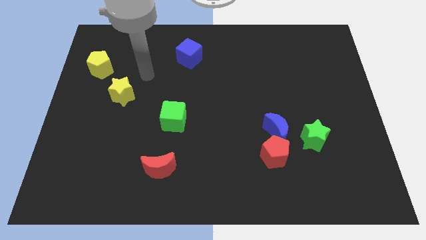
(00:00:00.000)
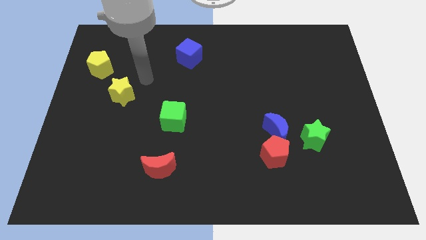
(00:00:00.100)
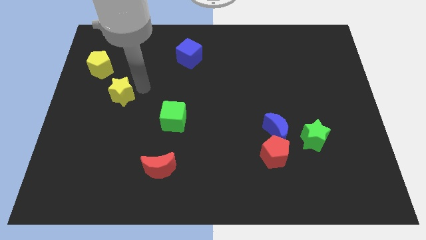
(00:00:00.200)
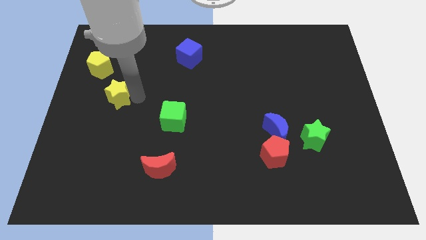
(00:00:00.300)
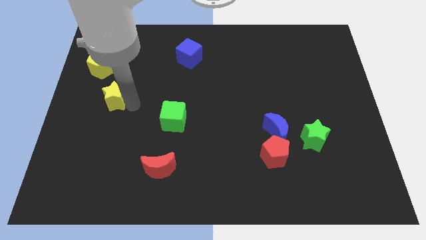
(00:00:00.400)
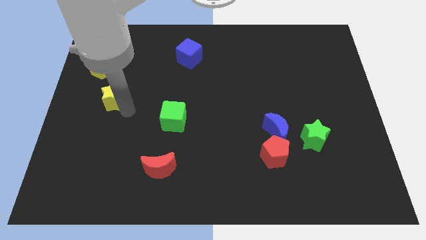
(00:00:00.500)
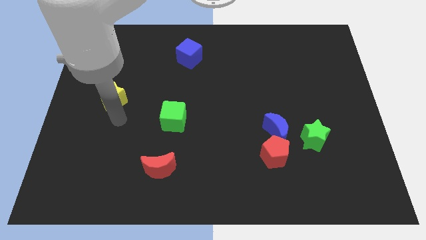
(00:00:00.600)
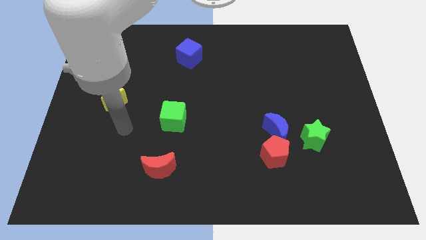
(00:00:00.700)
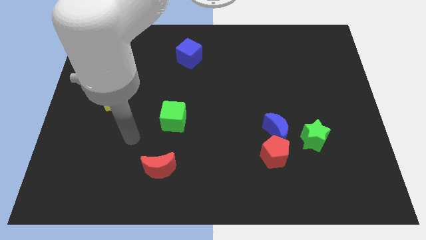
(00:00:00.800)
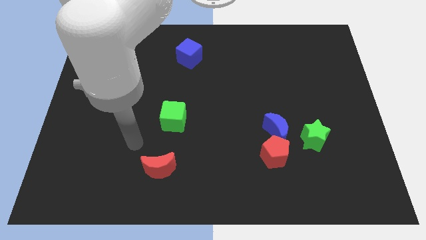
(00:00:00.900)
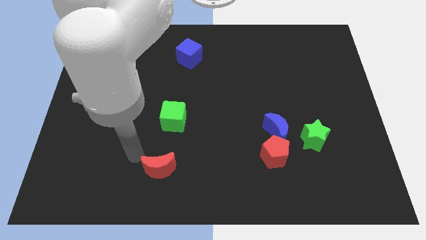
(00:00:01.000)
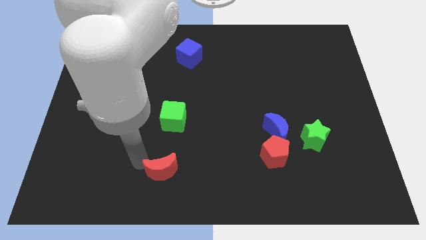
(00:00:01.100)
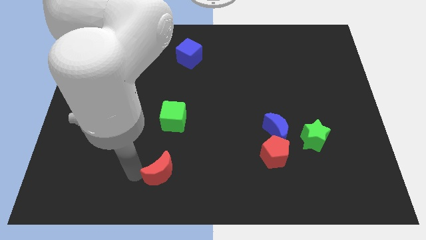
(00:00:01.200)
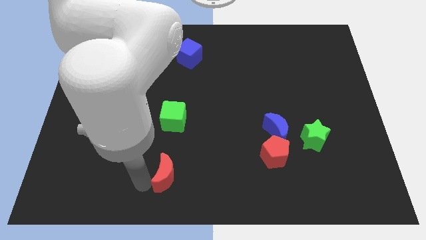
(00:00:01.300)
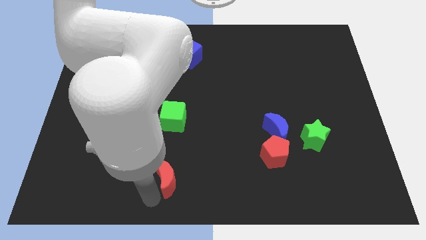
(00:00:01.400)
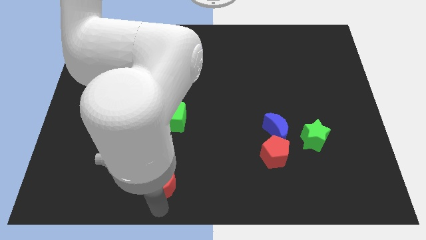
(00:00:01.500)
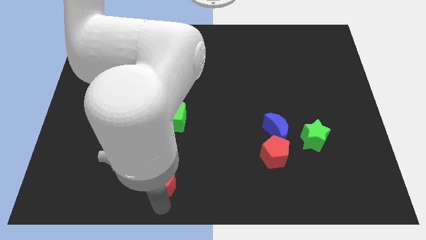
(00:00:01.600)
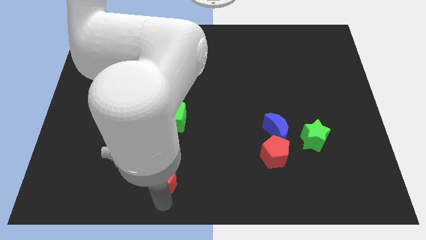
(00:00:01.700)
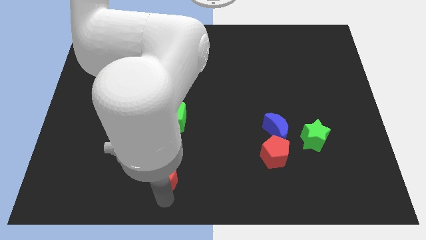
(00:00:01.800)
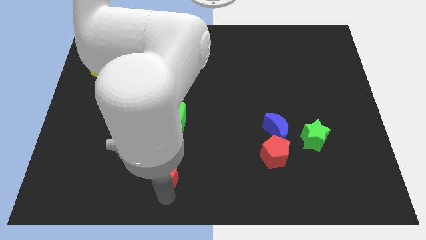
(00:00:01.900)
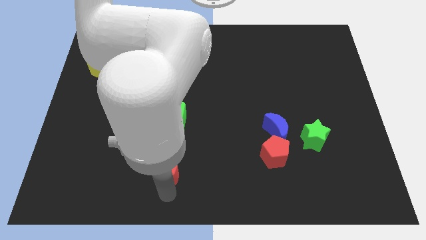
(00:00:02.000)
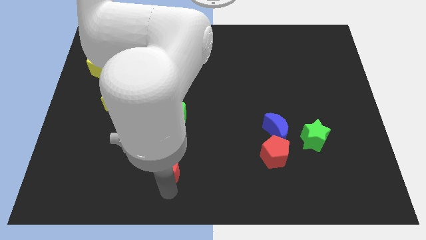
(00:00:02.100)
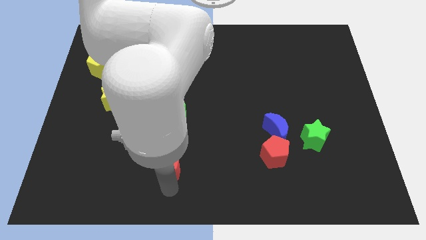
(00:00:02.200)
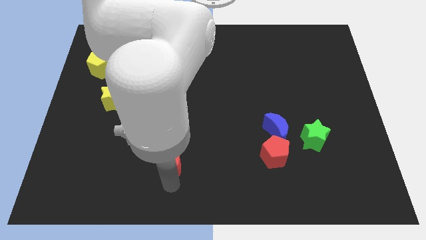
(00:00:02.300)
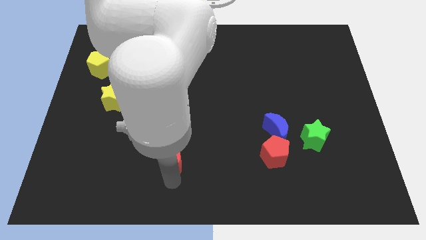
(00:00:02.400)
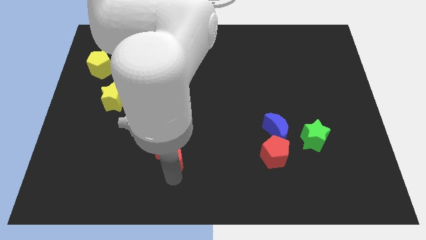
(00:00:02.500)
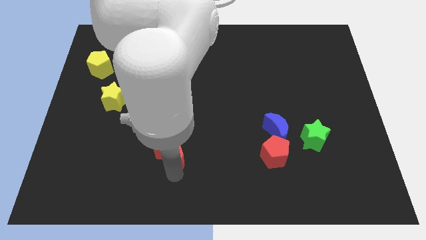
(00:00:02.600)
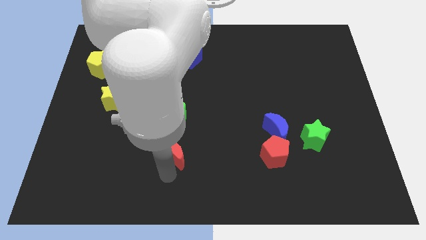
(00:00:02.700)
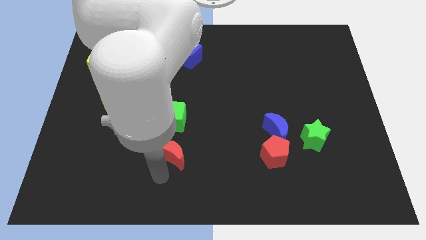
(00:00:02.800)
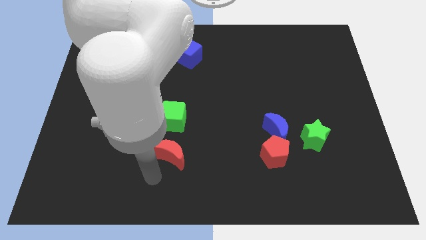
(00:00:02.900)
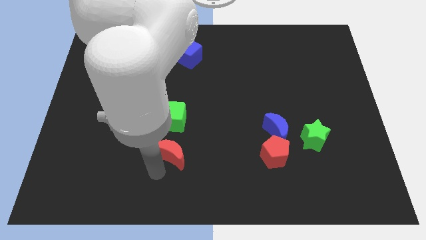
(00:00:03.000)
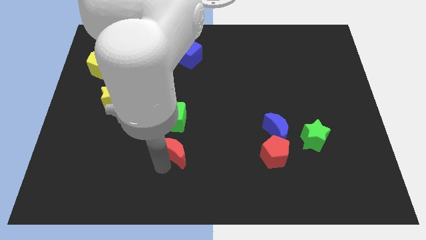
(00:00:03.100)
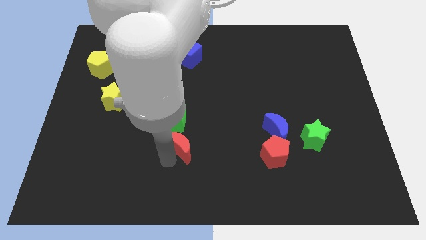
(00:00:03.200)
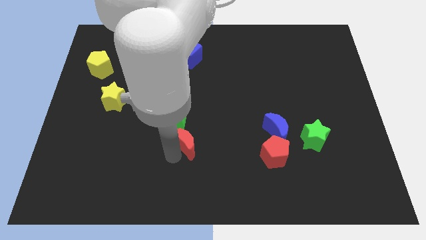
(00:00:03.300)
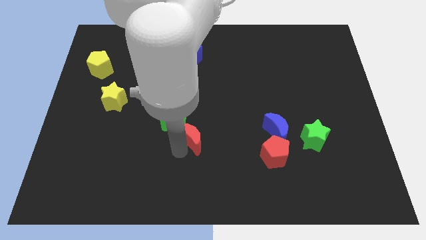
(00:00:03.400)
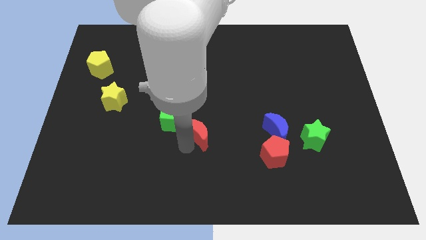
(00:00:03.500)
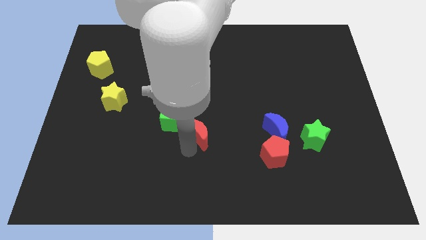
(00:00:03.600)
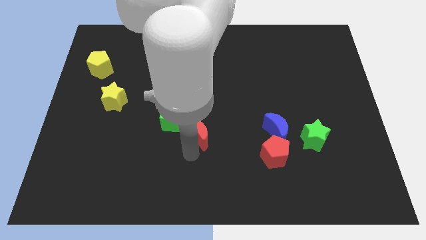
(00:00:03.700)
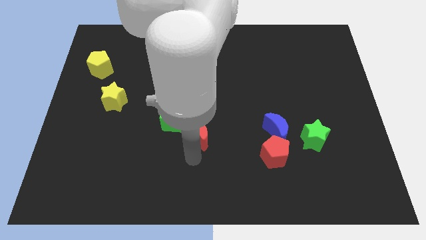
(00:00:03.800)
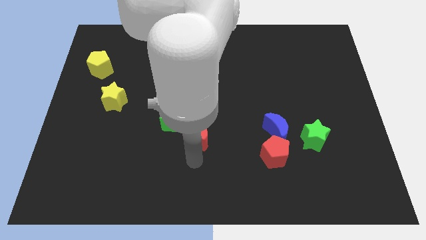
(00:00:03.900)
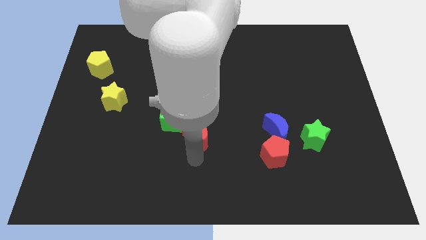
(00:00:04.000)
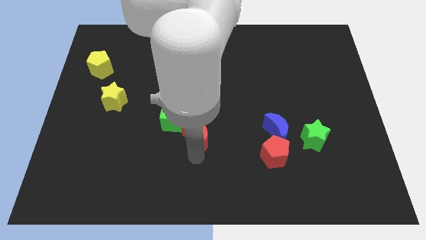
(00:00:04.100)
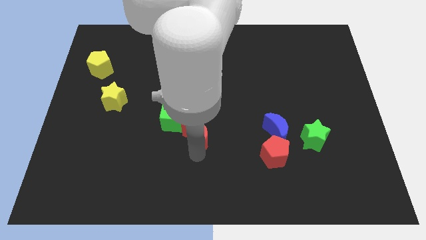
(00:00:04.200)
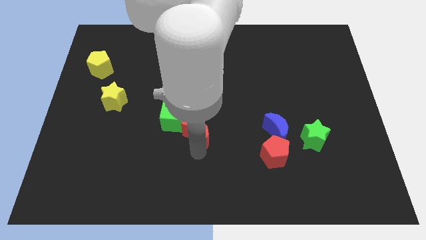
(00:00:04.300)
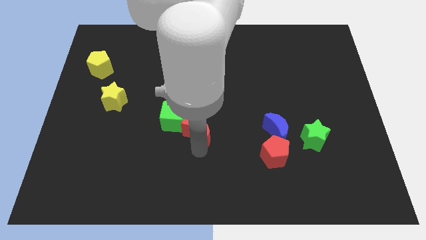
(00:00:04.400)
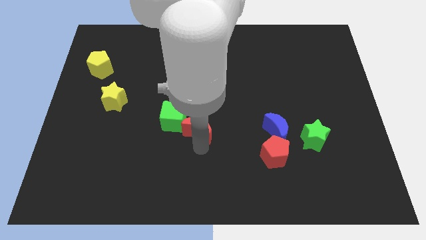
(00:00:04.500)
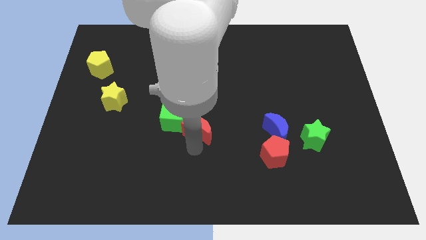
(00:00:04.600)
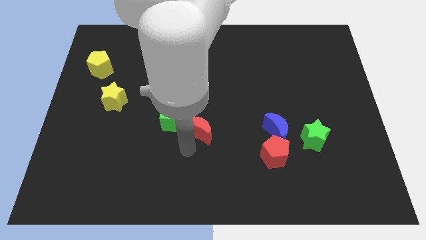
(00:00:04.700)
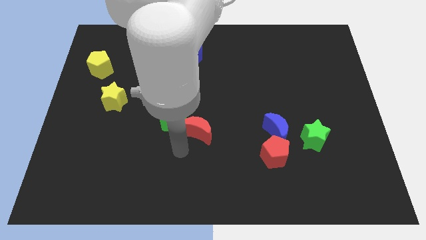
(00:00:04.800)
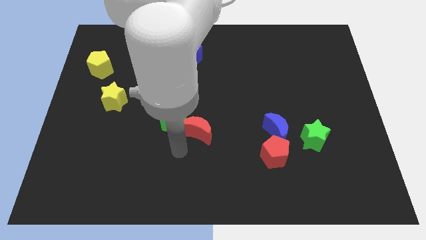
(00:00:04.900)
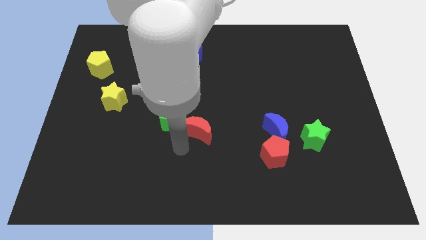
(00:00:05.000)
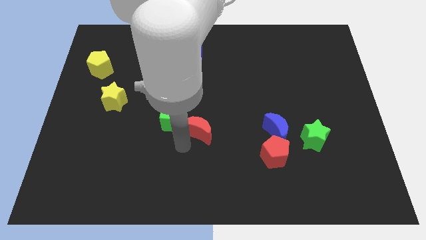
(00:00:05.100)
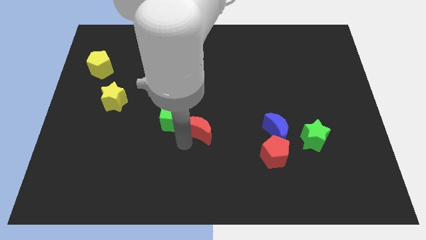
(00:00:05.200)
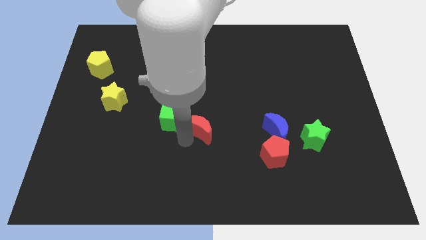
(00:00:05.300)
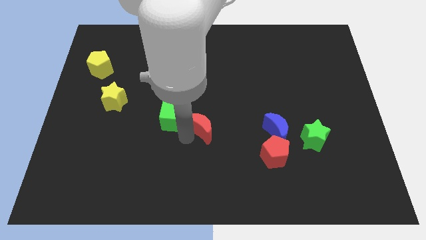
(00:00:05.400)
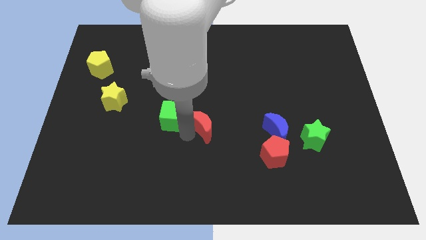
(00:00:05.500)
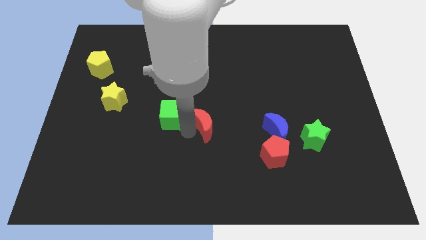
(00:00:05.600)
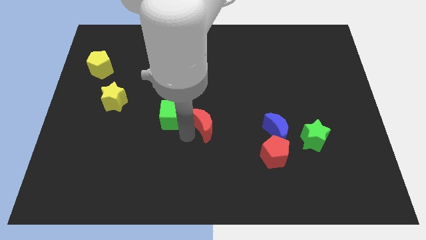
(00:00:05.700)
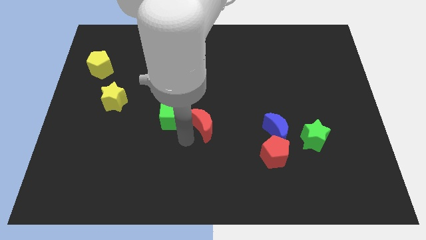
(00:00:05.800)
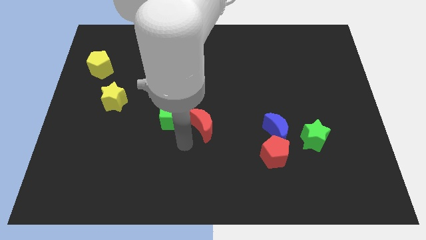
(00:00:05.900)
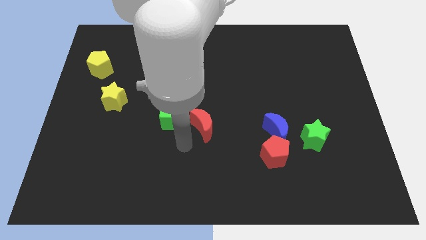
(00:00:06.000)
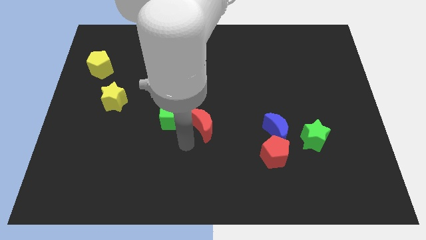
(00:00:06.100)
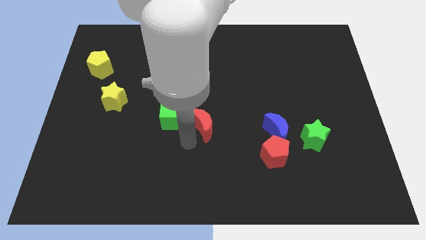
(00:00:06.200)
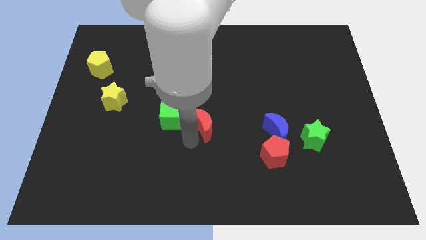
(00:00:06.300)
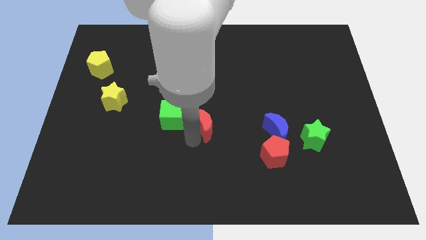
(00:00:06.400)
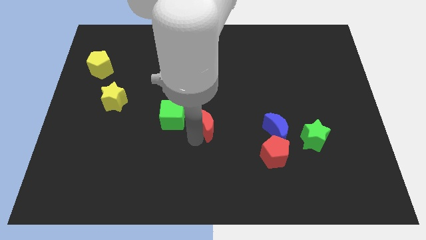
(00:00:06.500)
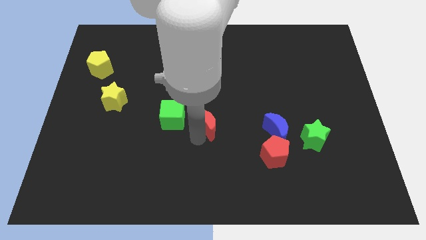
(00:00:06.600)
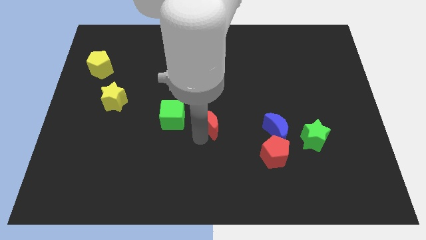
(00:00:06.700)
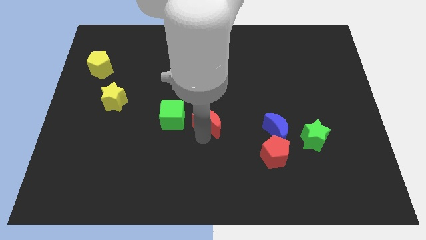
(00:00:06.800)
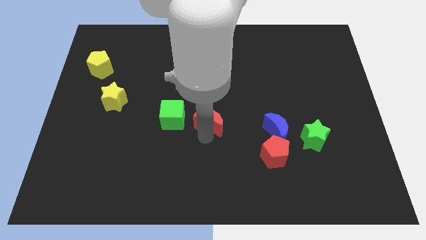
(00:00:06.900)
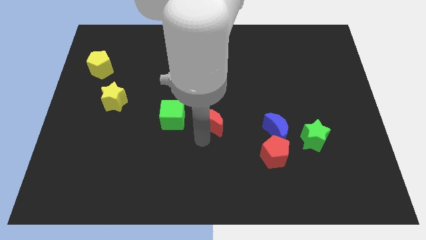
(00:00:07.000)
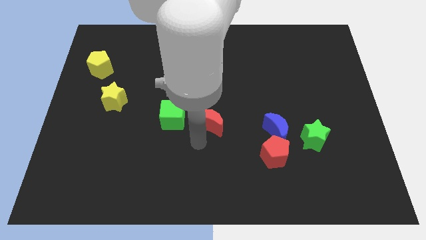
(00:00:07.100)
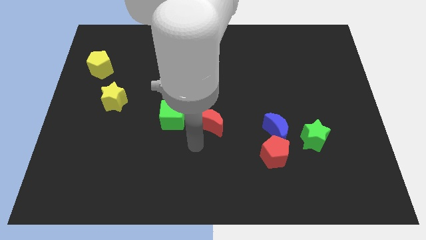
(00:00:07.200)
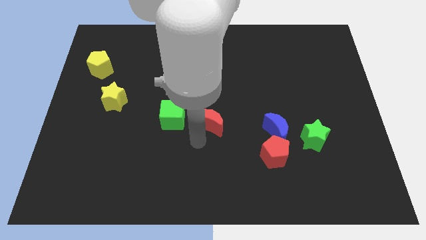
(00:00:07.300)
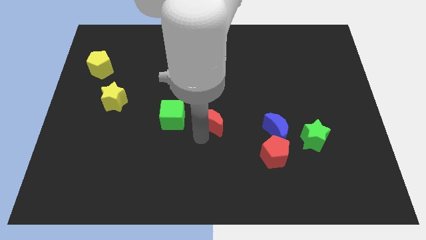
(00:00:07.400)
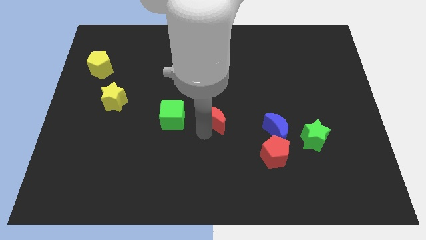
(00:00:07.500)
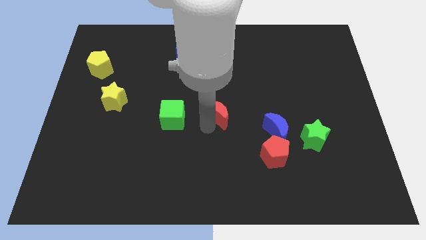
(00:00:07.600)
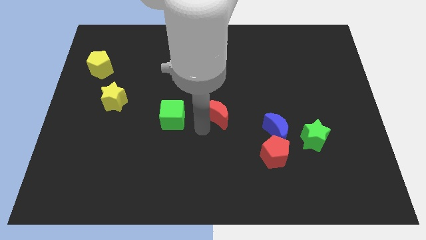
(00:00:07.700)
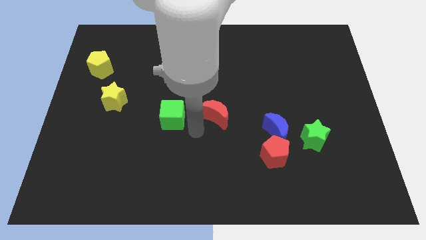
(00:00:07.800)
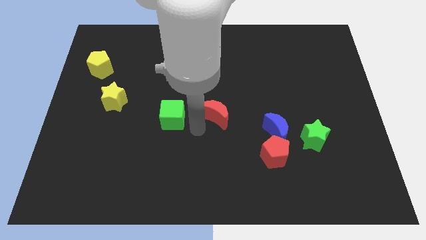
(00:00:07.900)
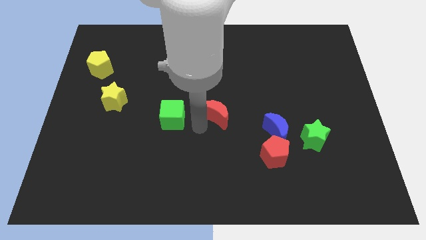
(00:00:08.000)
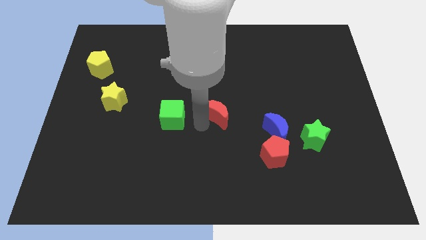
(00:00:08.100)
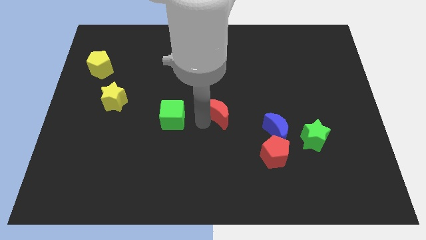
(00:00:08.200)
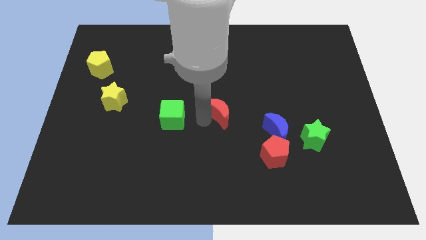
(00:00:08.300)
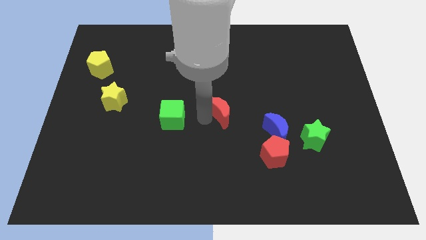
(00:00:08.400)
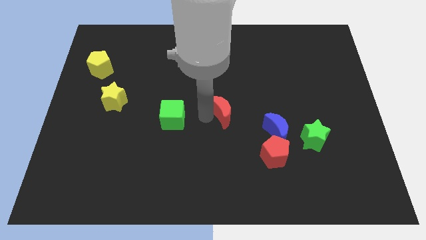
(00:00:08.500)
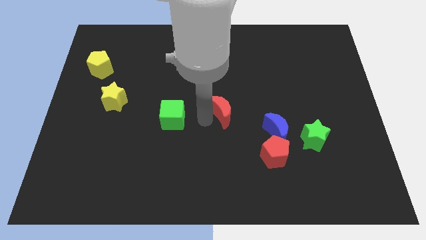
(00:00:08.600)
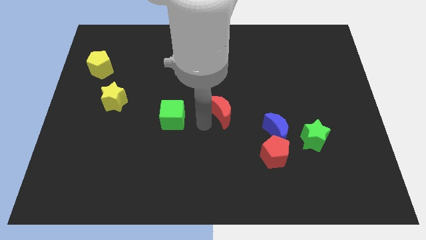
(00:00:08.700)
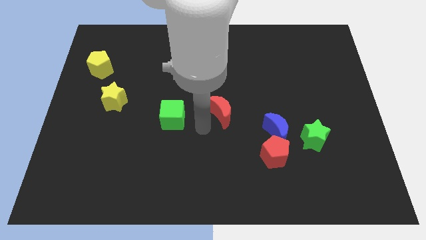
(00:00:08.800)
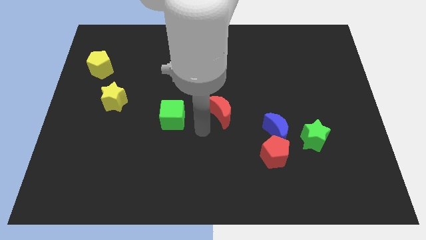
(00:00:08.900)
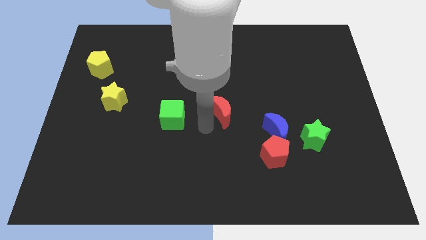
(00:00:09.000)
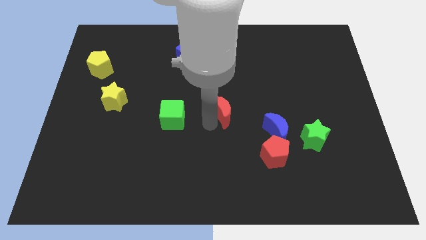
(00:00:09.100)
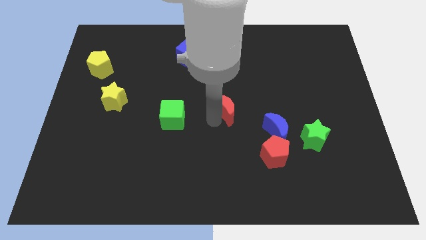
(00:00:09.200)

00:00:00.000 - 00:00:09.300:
push the red moon upwards and to the right diagonally
